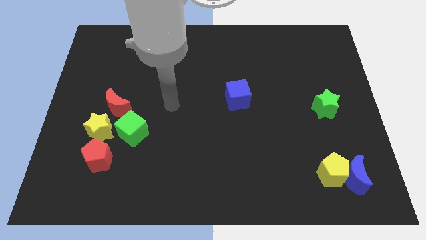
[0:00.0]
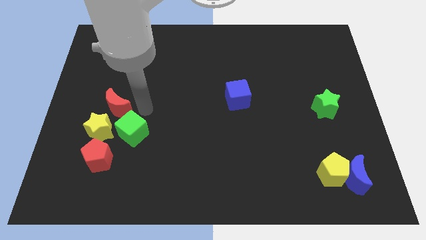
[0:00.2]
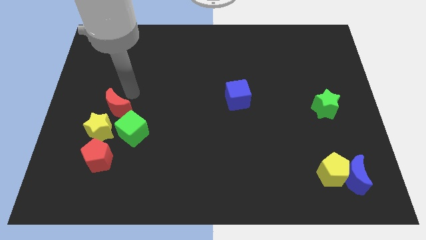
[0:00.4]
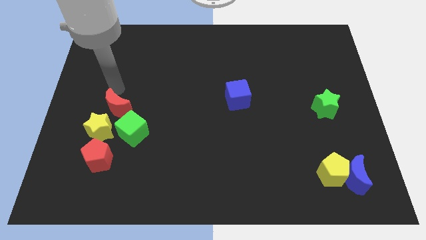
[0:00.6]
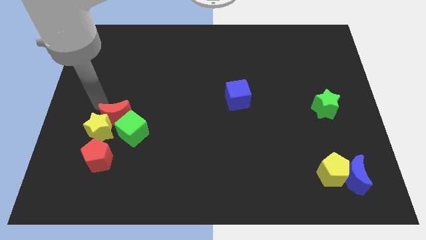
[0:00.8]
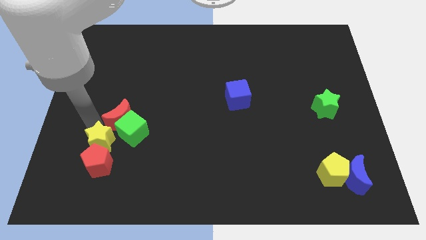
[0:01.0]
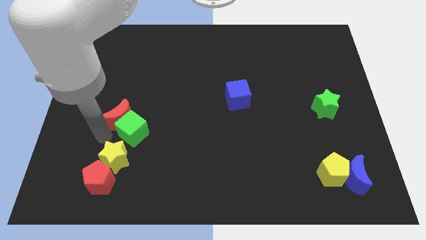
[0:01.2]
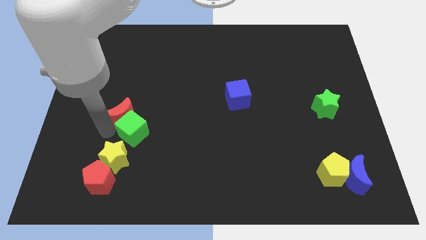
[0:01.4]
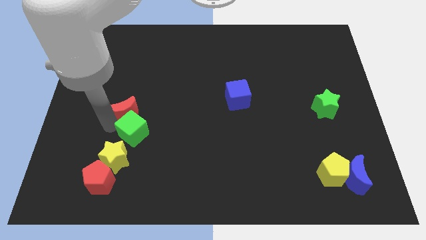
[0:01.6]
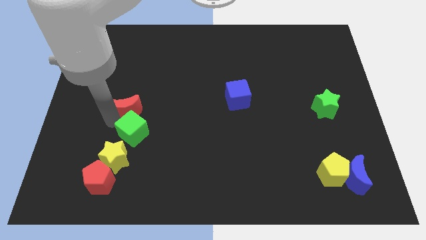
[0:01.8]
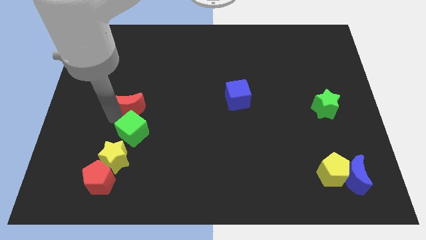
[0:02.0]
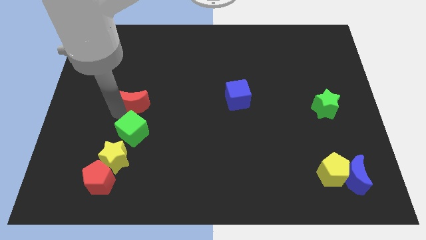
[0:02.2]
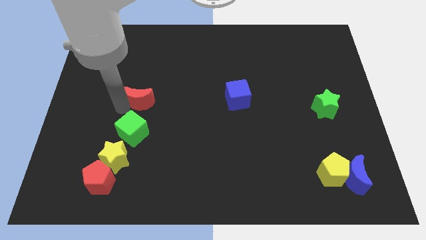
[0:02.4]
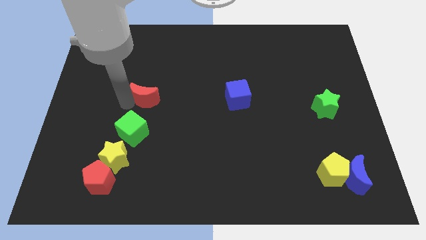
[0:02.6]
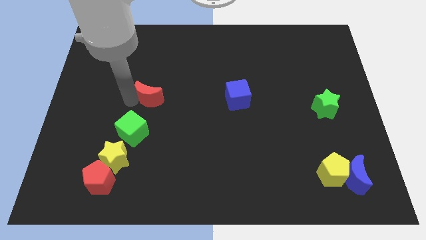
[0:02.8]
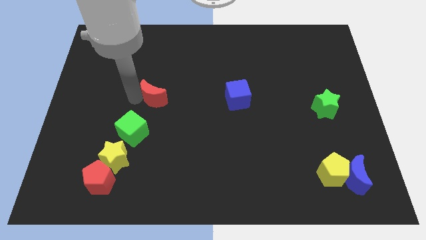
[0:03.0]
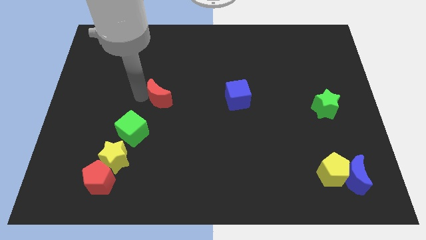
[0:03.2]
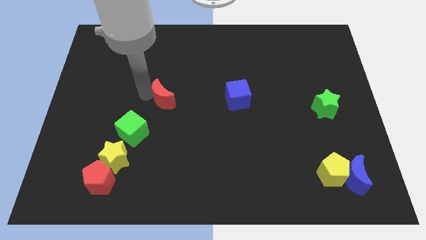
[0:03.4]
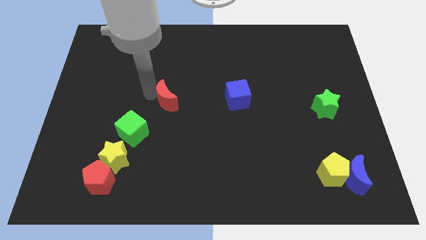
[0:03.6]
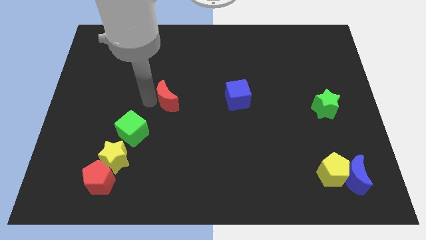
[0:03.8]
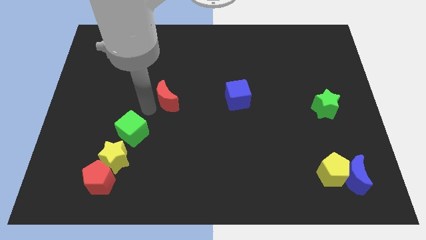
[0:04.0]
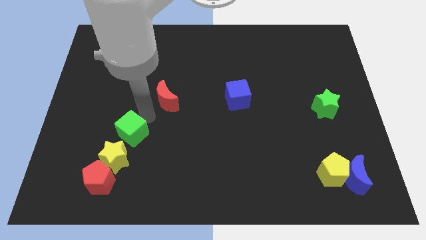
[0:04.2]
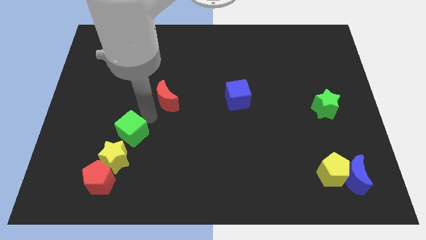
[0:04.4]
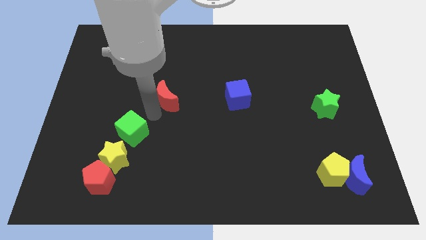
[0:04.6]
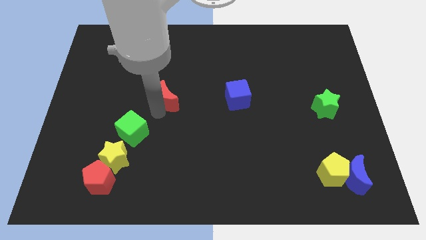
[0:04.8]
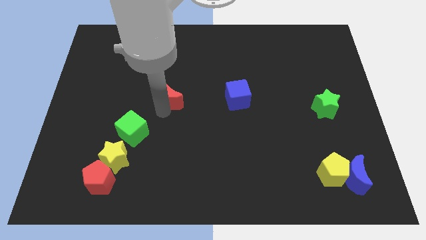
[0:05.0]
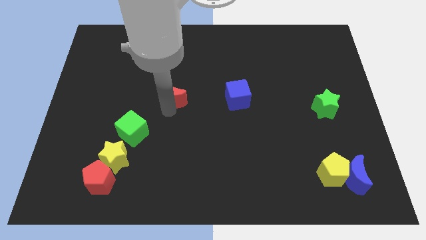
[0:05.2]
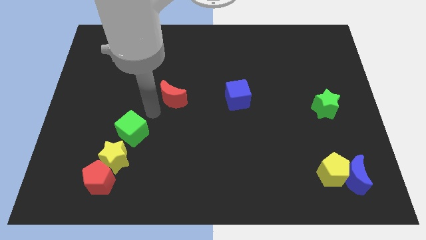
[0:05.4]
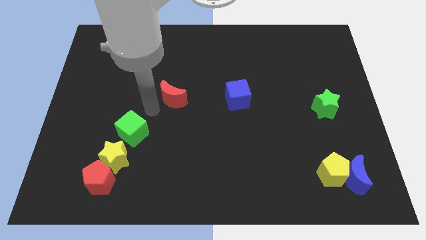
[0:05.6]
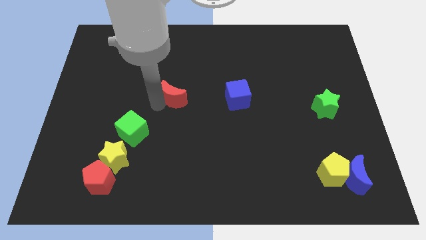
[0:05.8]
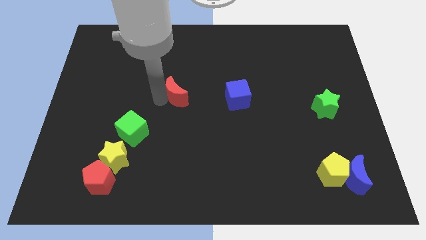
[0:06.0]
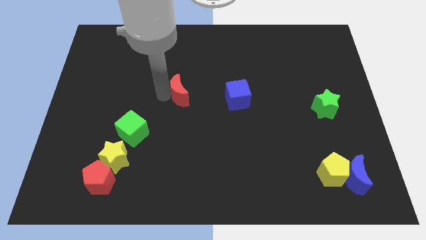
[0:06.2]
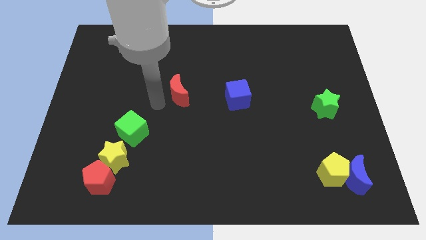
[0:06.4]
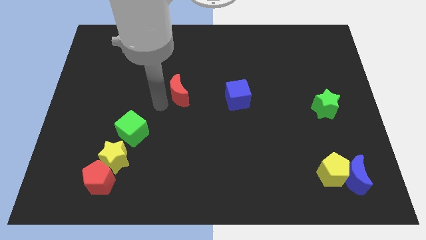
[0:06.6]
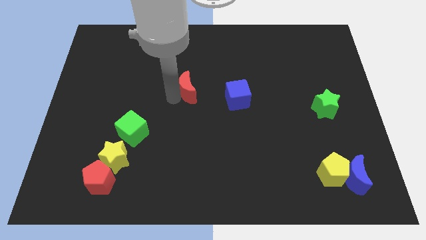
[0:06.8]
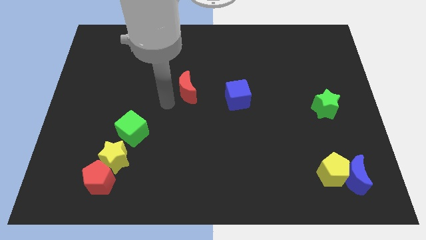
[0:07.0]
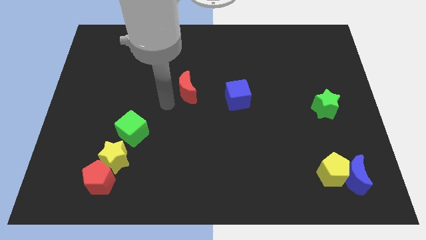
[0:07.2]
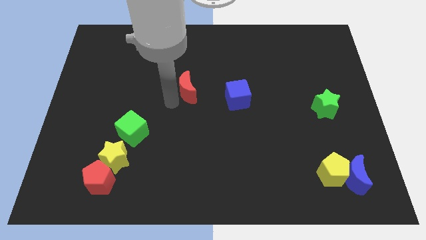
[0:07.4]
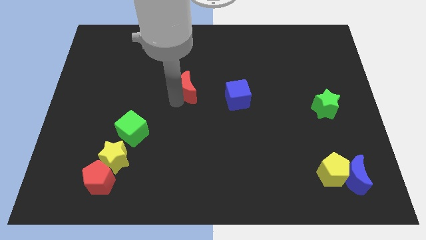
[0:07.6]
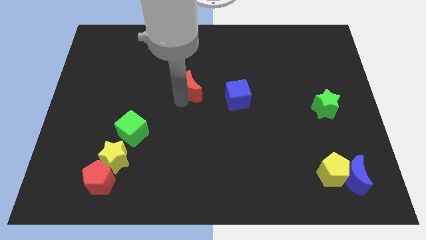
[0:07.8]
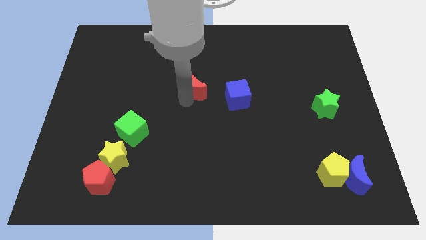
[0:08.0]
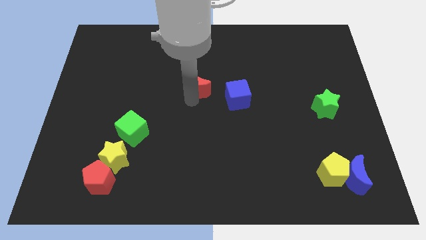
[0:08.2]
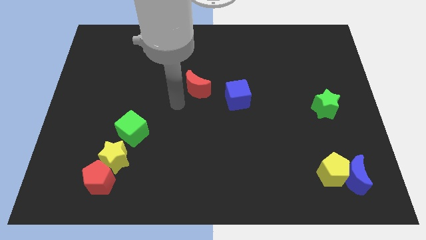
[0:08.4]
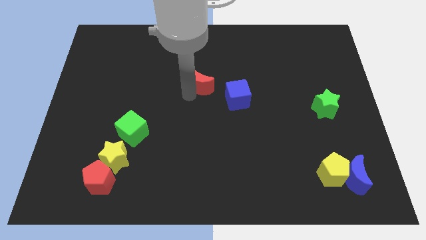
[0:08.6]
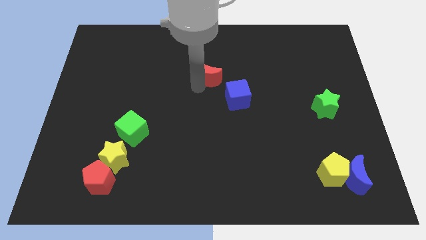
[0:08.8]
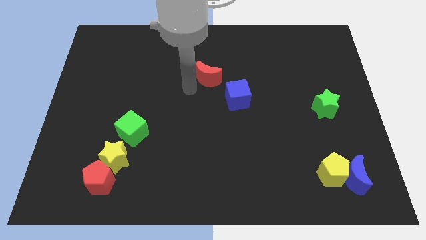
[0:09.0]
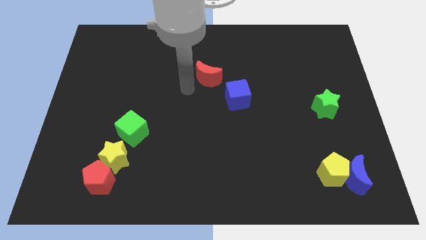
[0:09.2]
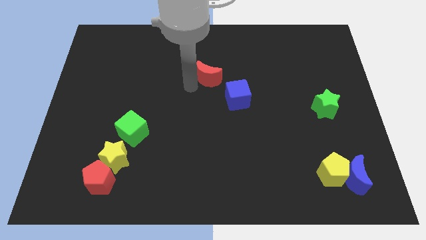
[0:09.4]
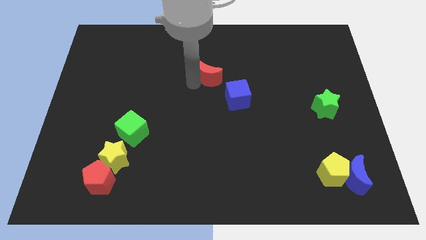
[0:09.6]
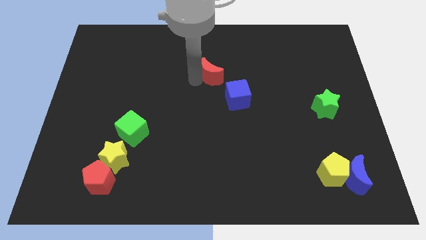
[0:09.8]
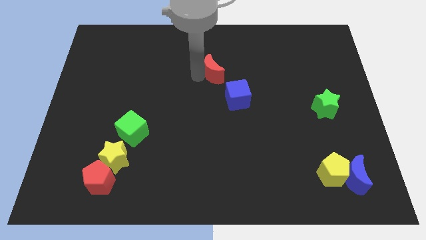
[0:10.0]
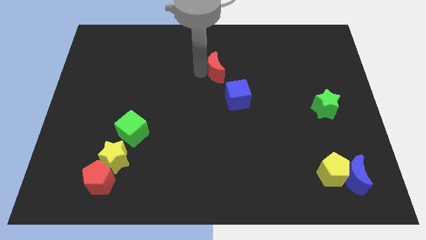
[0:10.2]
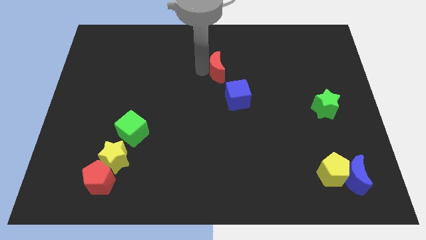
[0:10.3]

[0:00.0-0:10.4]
push the red moon above the blue cube
